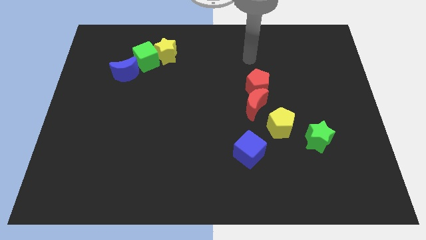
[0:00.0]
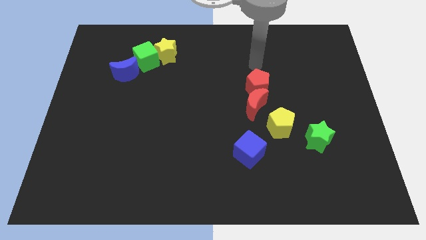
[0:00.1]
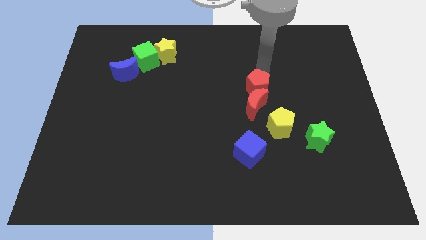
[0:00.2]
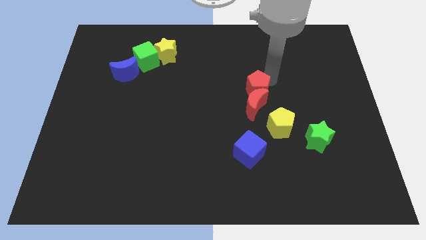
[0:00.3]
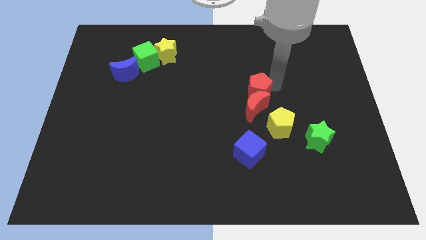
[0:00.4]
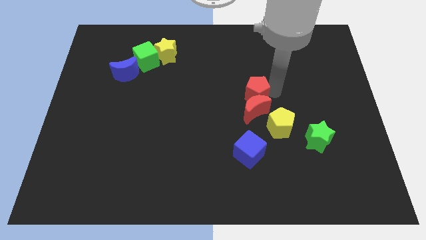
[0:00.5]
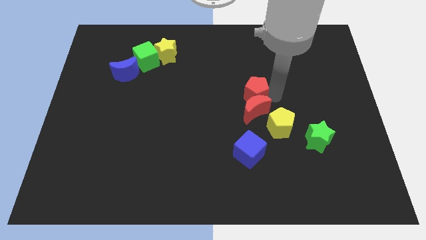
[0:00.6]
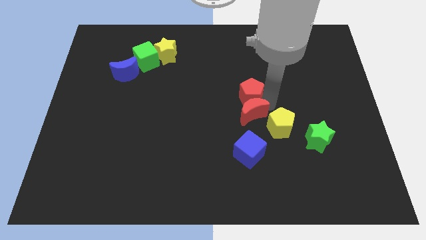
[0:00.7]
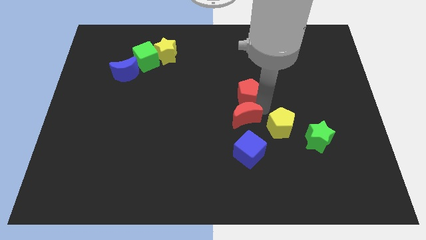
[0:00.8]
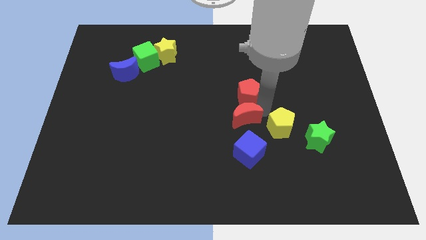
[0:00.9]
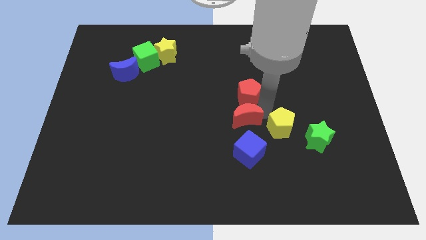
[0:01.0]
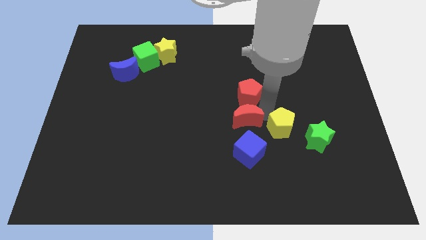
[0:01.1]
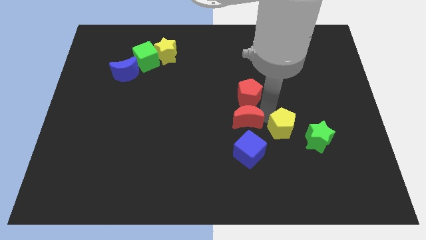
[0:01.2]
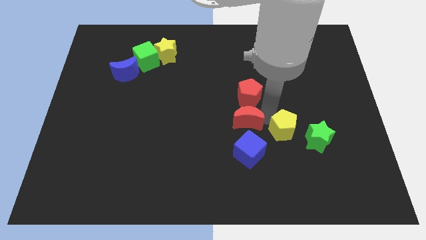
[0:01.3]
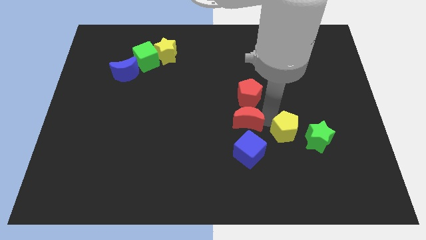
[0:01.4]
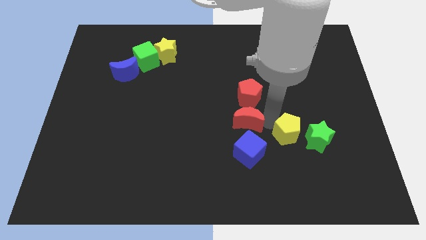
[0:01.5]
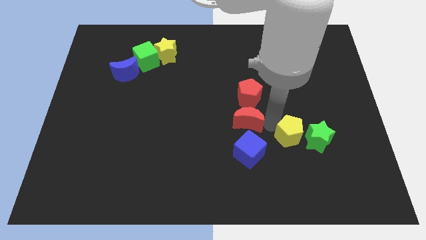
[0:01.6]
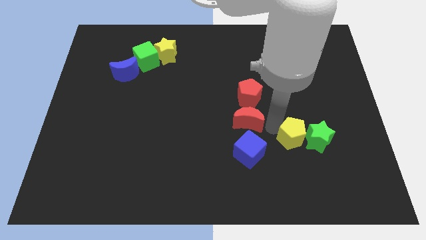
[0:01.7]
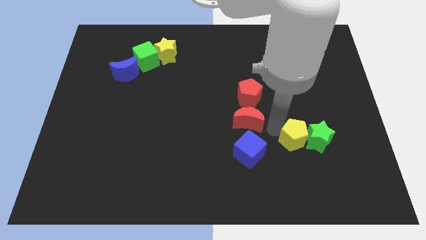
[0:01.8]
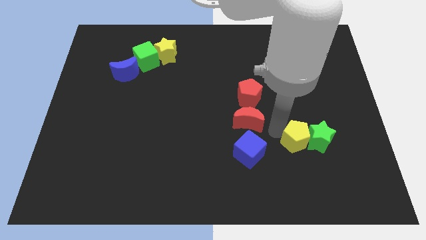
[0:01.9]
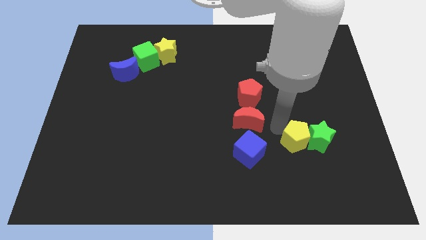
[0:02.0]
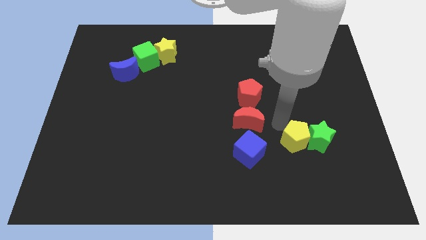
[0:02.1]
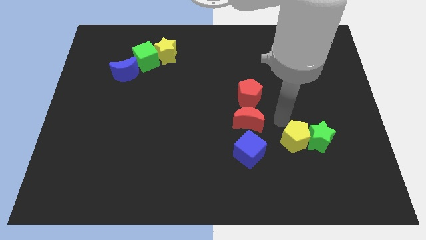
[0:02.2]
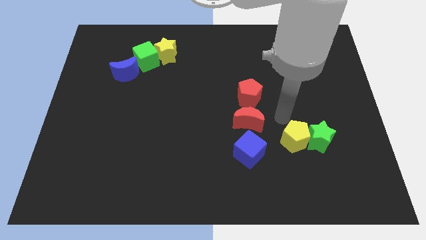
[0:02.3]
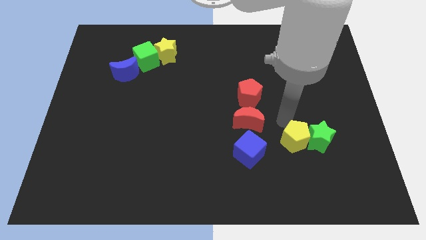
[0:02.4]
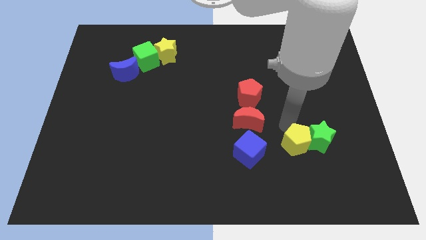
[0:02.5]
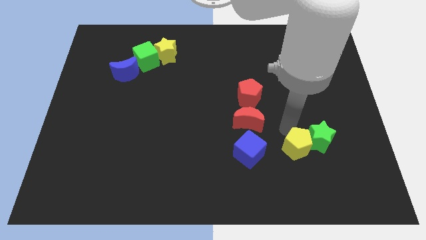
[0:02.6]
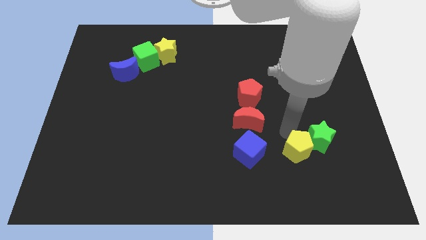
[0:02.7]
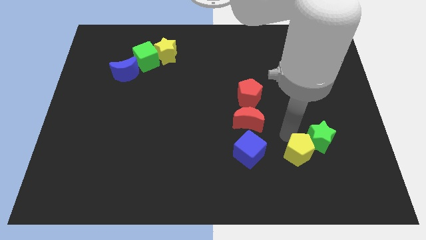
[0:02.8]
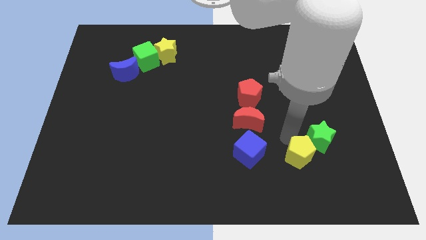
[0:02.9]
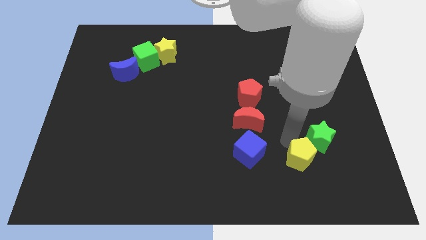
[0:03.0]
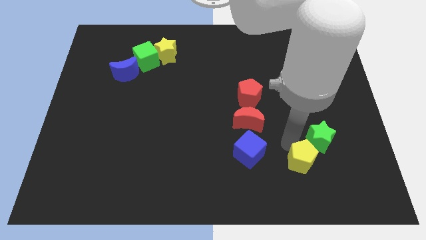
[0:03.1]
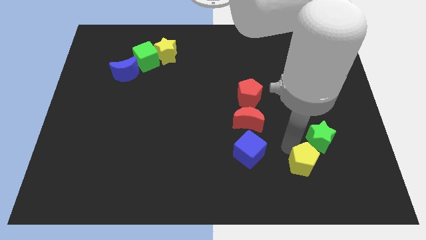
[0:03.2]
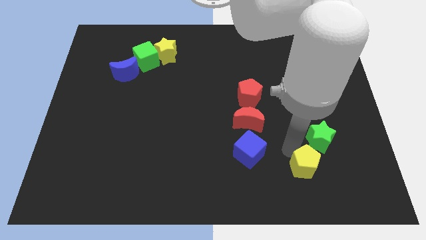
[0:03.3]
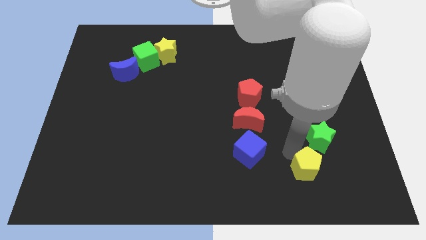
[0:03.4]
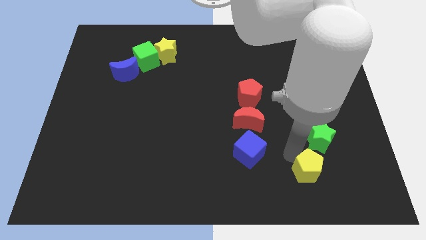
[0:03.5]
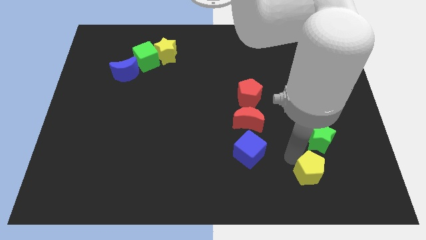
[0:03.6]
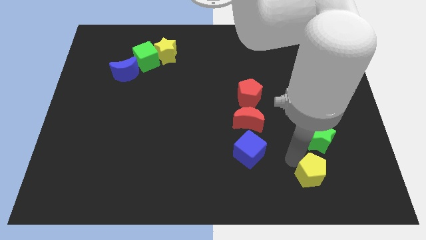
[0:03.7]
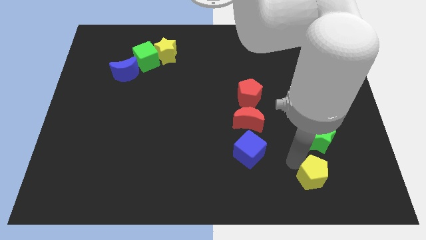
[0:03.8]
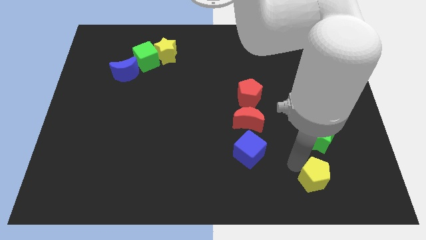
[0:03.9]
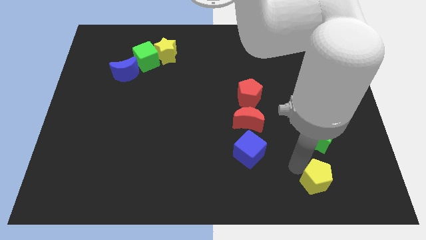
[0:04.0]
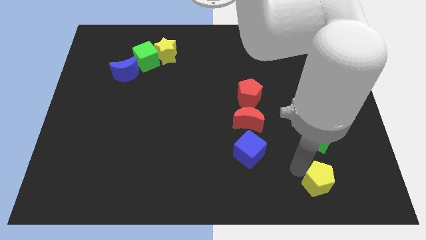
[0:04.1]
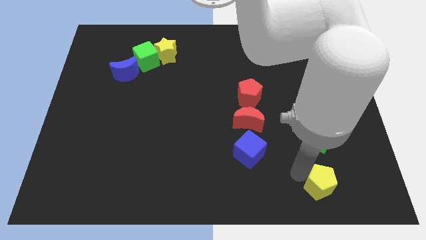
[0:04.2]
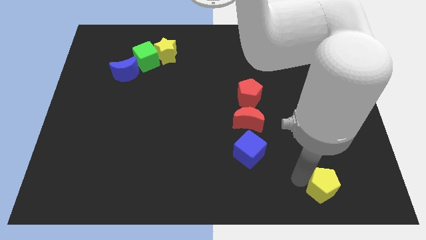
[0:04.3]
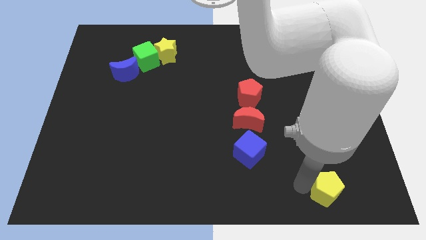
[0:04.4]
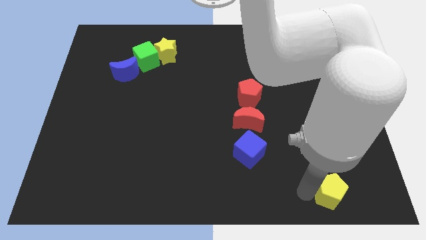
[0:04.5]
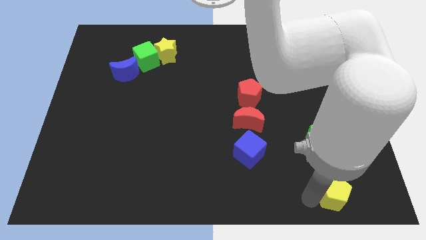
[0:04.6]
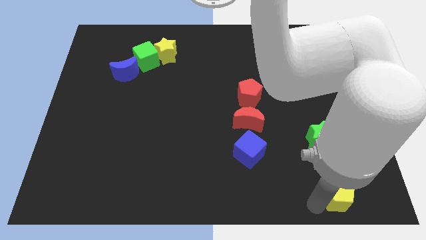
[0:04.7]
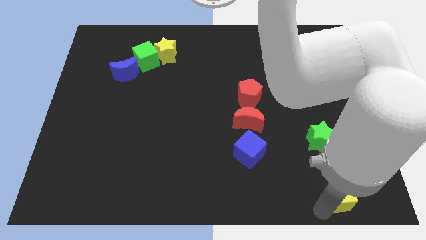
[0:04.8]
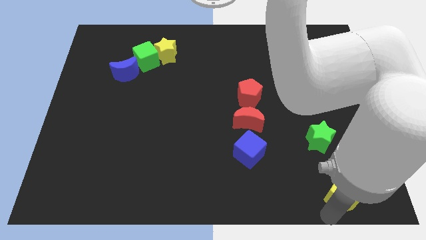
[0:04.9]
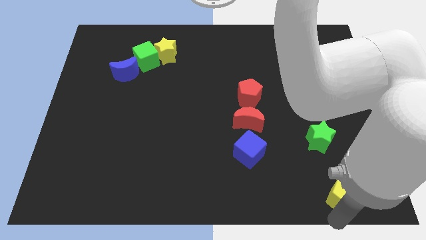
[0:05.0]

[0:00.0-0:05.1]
move the yellow pentagon to the bottom right

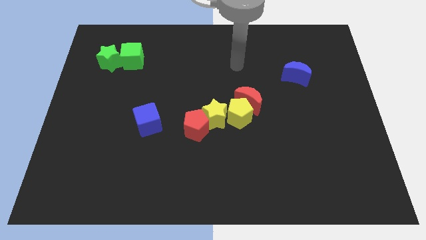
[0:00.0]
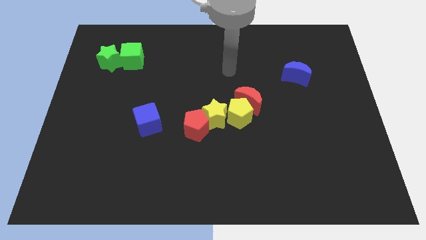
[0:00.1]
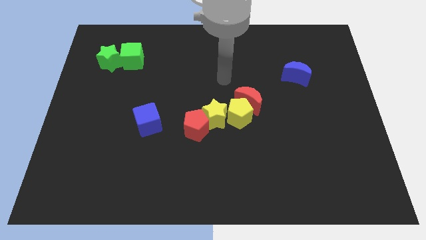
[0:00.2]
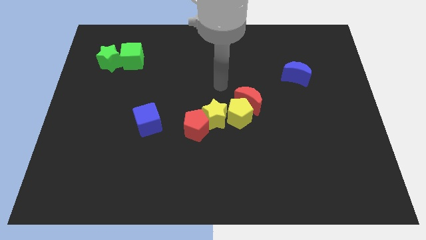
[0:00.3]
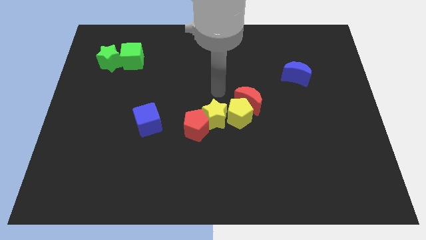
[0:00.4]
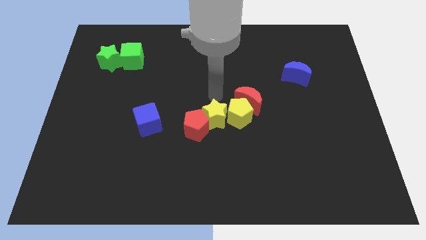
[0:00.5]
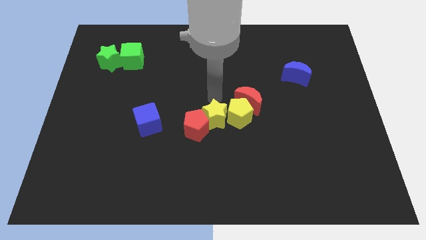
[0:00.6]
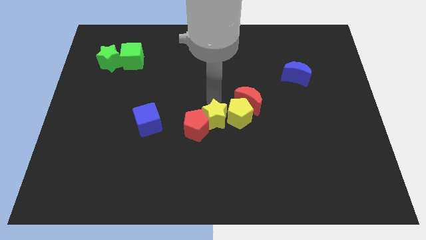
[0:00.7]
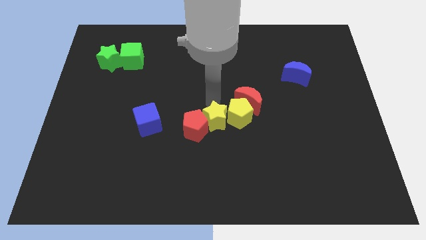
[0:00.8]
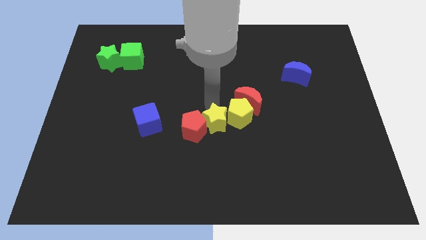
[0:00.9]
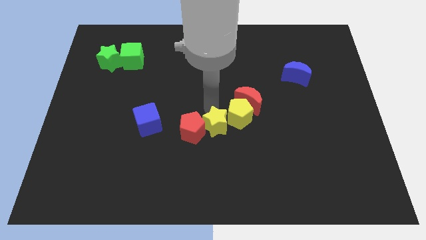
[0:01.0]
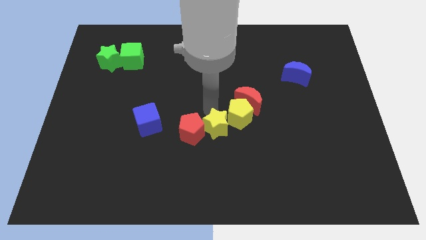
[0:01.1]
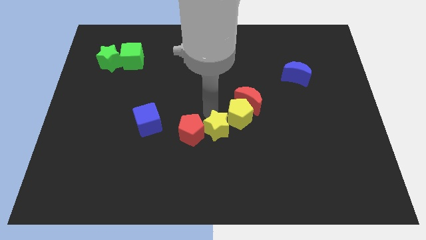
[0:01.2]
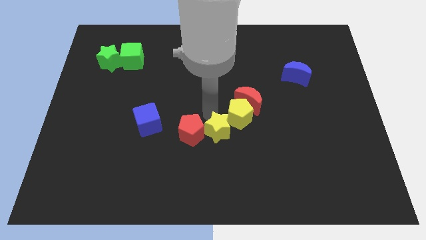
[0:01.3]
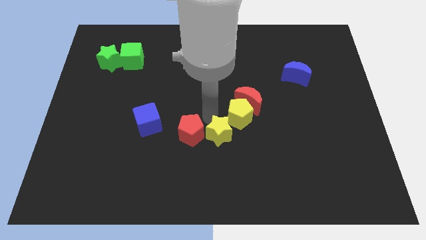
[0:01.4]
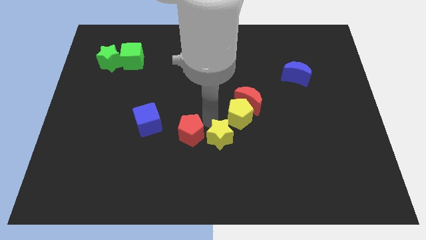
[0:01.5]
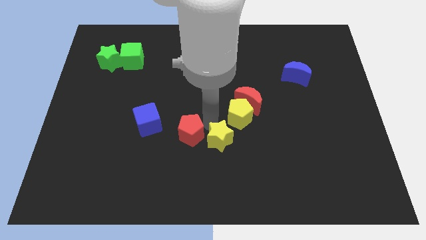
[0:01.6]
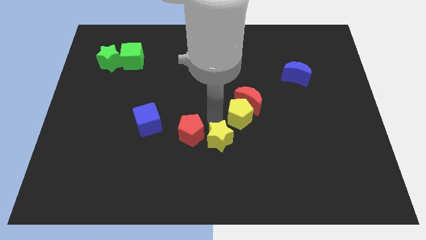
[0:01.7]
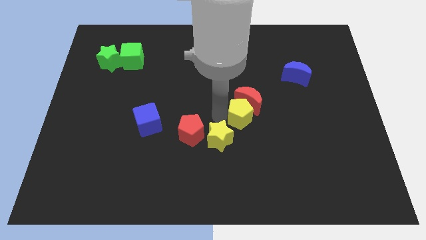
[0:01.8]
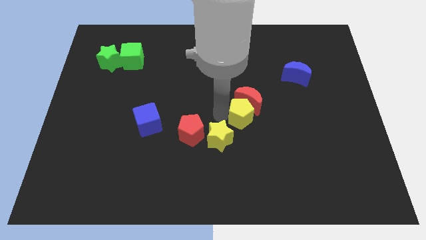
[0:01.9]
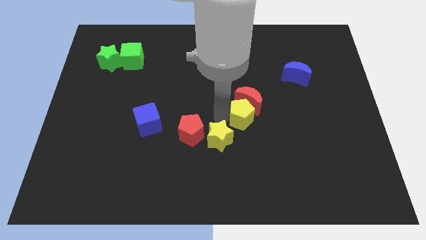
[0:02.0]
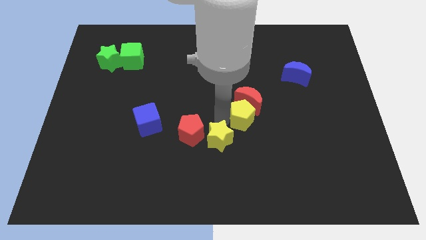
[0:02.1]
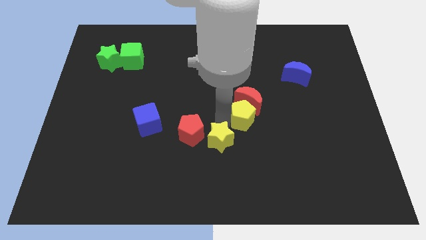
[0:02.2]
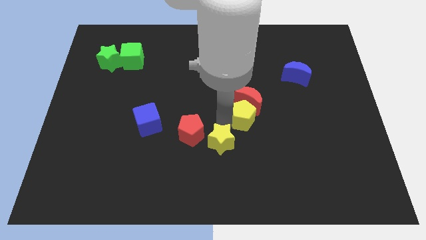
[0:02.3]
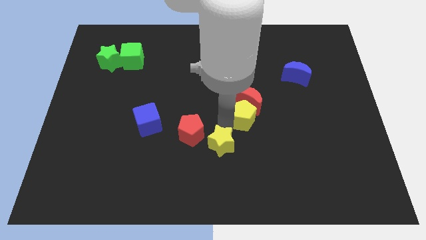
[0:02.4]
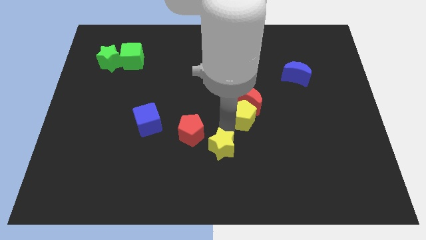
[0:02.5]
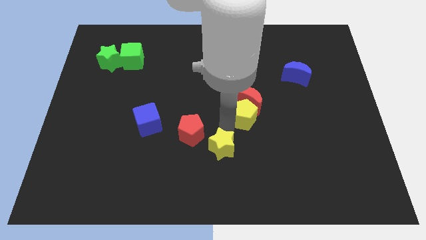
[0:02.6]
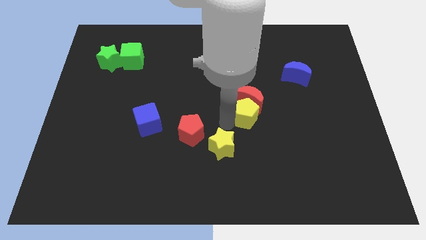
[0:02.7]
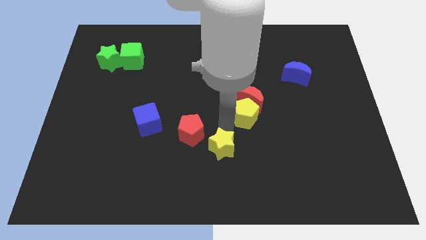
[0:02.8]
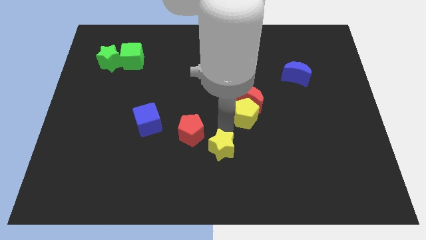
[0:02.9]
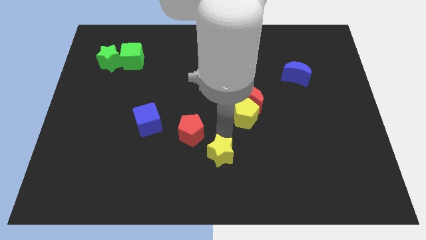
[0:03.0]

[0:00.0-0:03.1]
push the yellow star to the bottom
